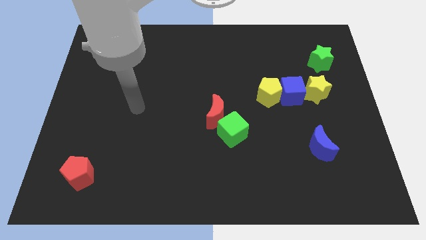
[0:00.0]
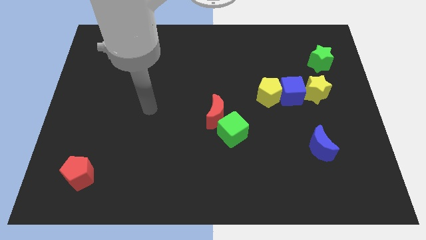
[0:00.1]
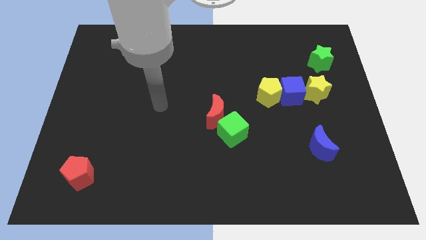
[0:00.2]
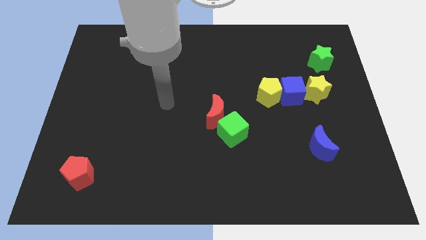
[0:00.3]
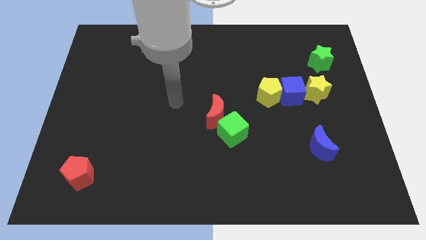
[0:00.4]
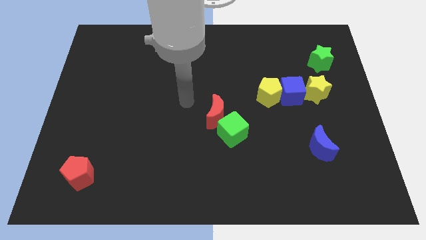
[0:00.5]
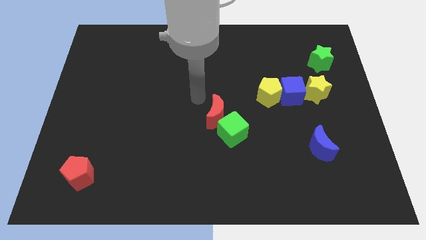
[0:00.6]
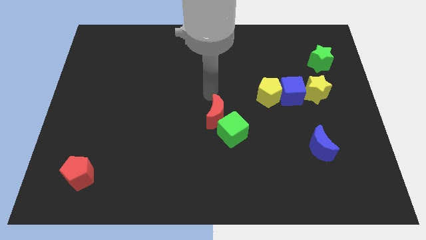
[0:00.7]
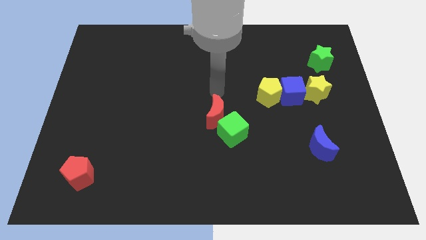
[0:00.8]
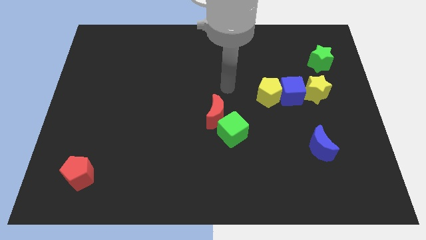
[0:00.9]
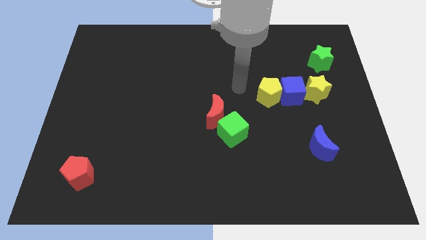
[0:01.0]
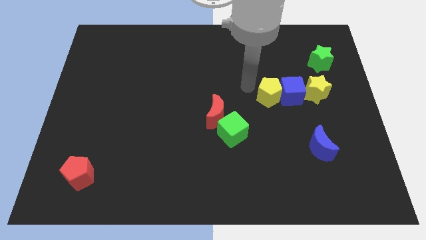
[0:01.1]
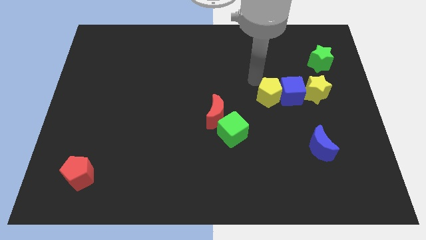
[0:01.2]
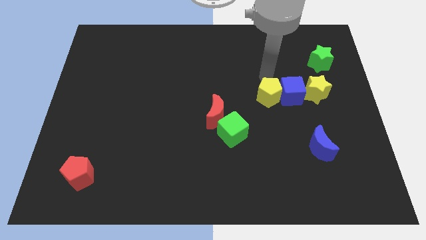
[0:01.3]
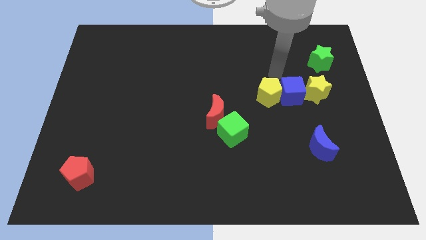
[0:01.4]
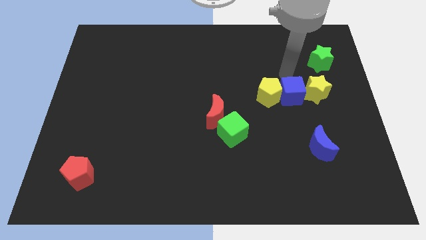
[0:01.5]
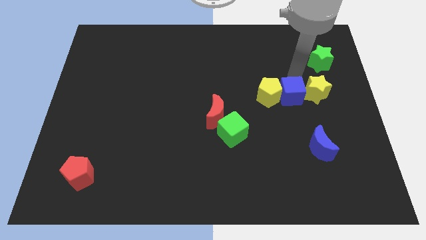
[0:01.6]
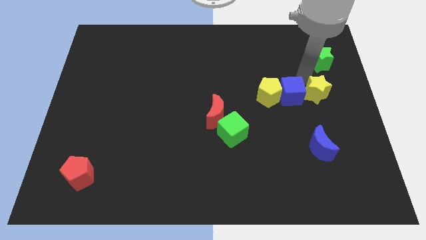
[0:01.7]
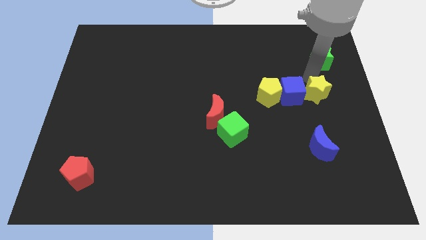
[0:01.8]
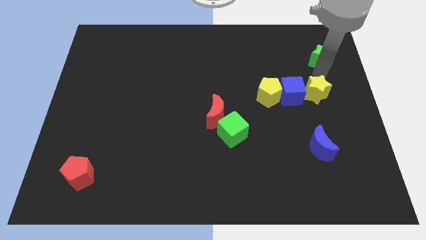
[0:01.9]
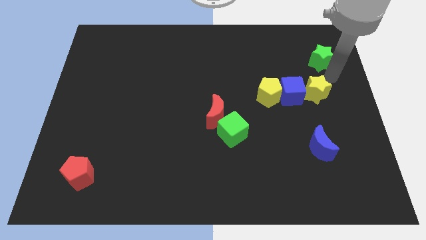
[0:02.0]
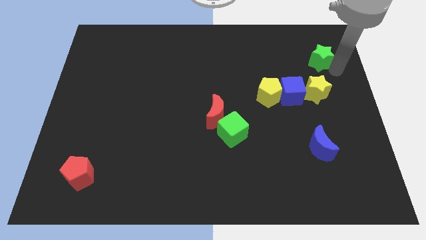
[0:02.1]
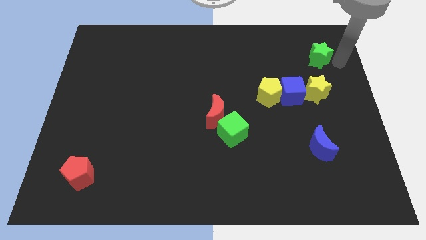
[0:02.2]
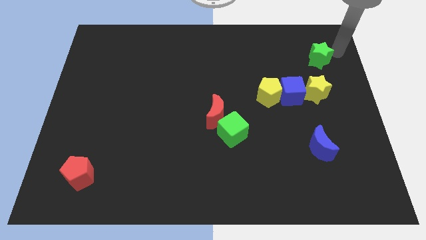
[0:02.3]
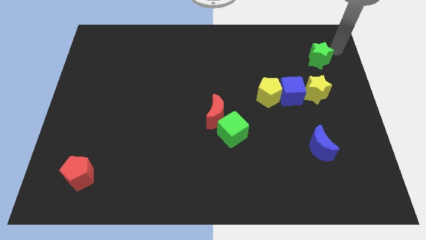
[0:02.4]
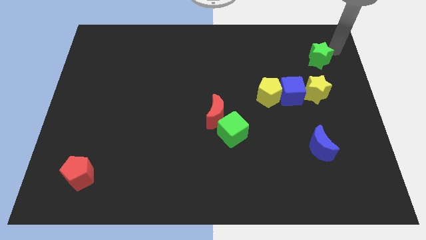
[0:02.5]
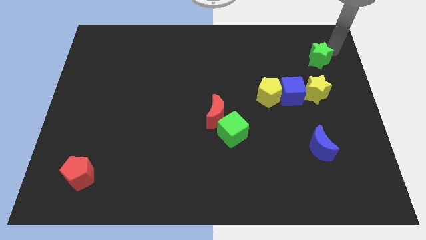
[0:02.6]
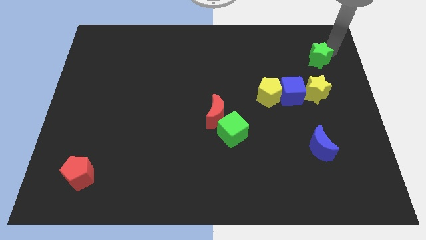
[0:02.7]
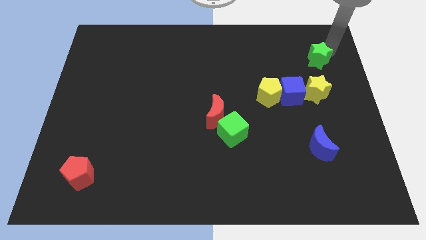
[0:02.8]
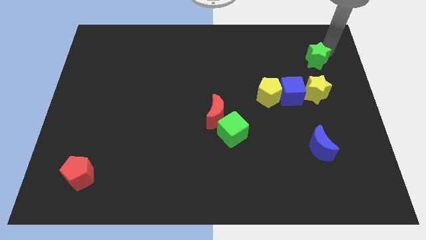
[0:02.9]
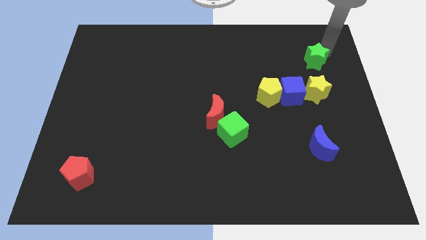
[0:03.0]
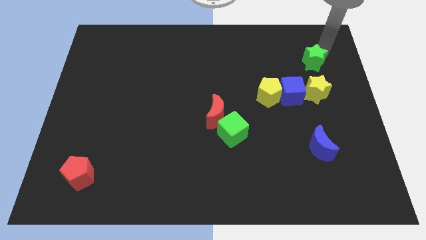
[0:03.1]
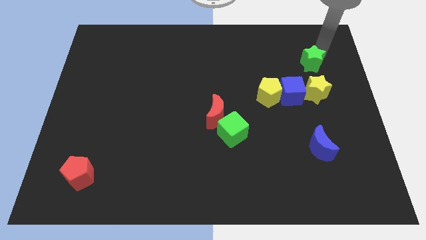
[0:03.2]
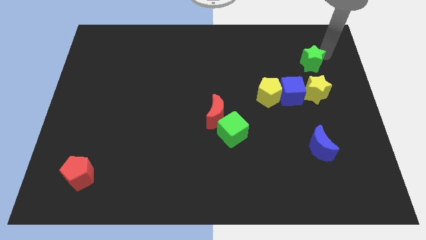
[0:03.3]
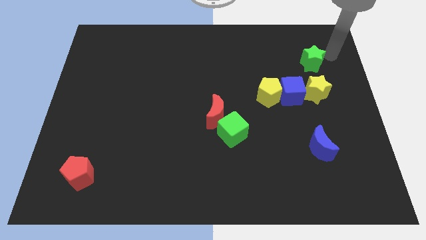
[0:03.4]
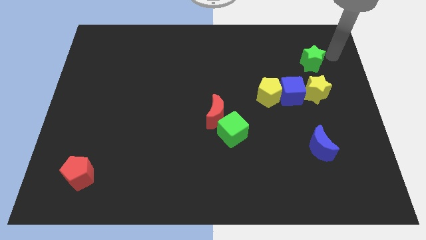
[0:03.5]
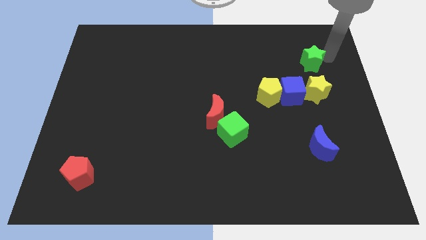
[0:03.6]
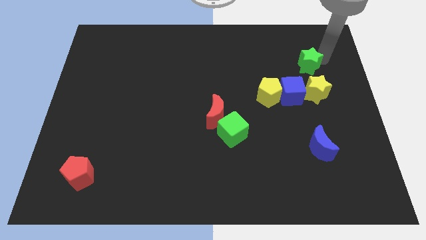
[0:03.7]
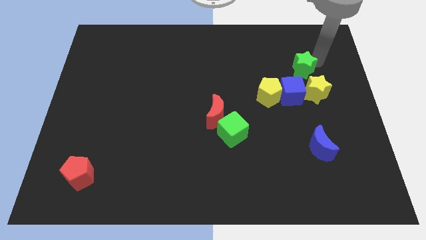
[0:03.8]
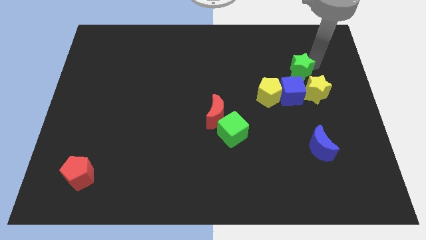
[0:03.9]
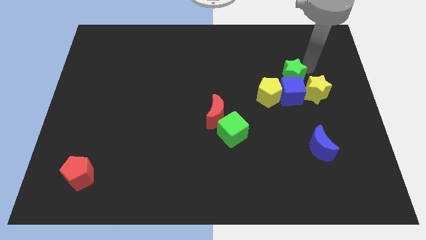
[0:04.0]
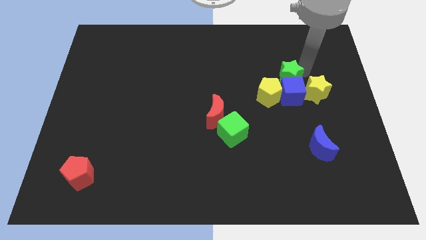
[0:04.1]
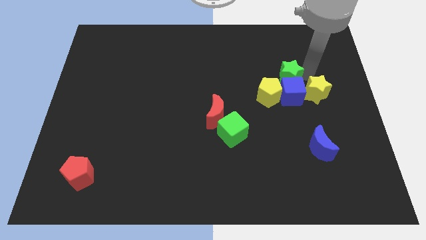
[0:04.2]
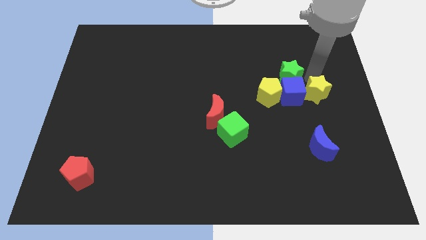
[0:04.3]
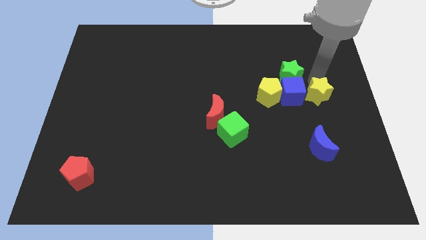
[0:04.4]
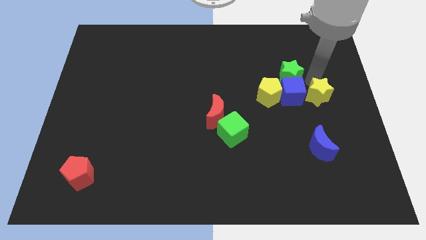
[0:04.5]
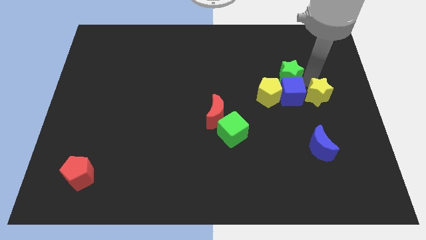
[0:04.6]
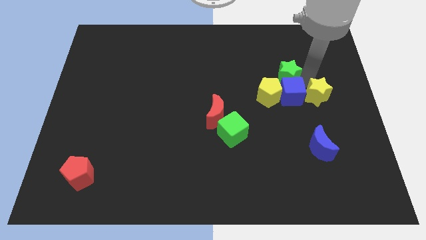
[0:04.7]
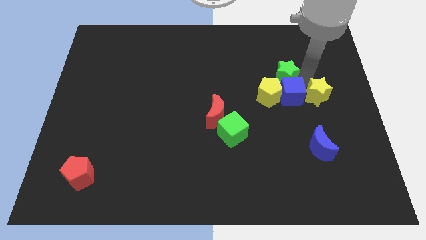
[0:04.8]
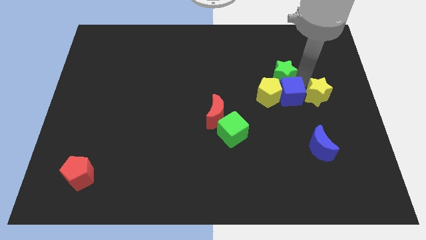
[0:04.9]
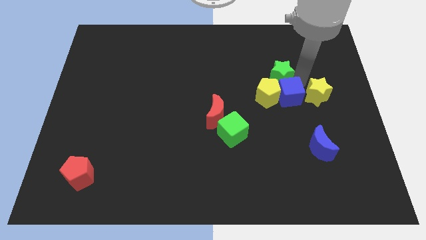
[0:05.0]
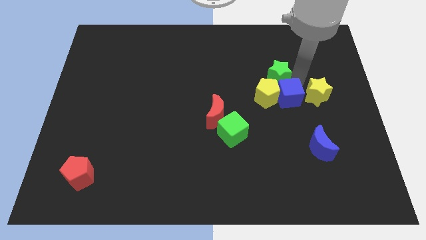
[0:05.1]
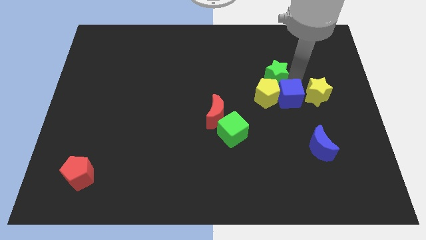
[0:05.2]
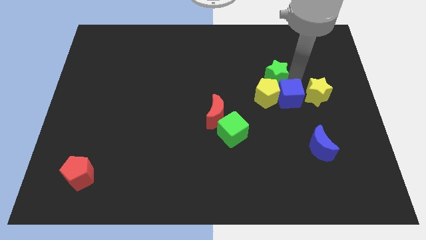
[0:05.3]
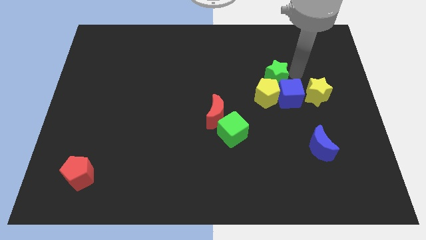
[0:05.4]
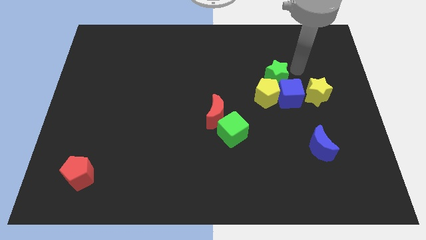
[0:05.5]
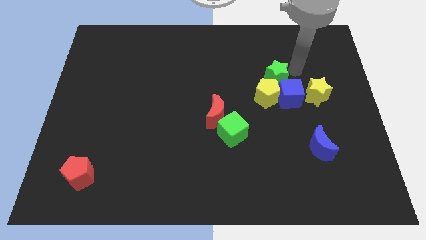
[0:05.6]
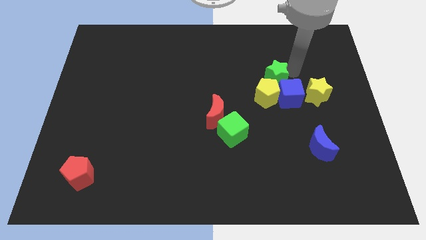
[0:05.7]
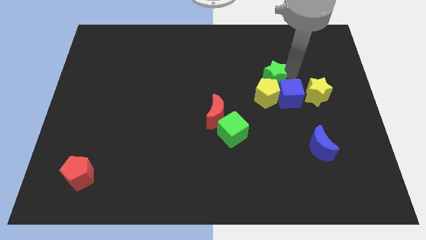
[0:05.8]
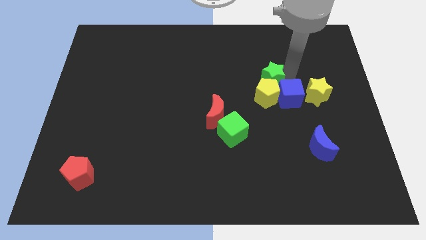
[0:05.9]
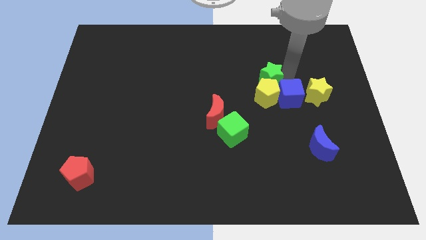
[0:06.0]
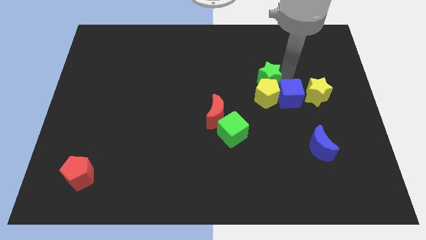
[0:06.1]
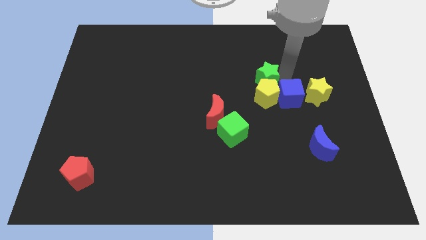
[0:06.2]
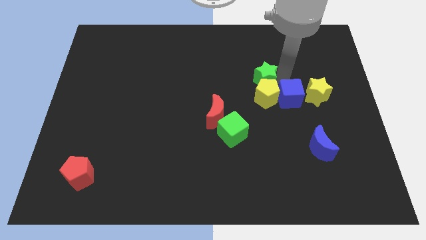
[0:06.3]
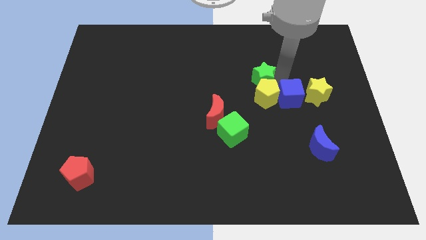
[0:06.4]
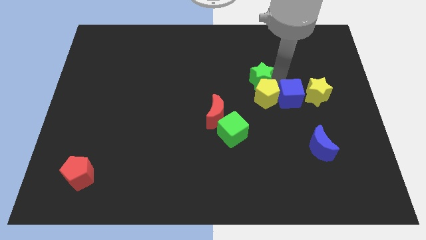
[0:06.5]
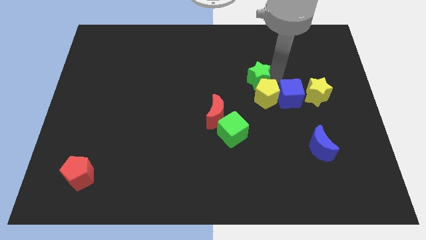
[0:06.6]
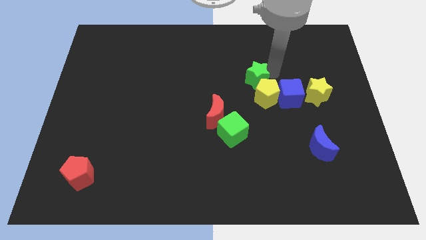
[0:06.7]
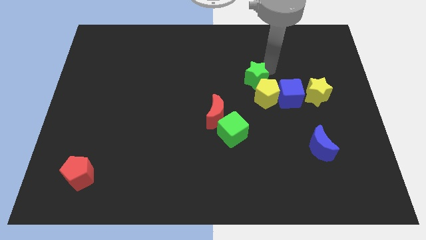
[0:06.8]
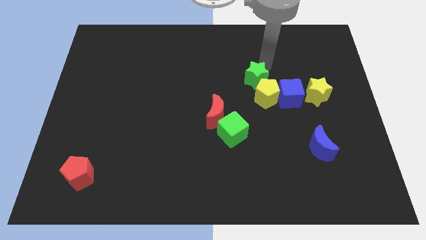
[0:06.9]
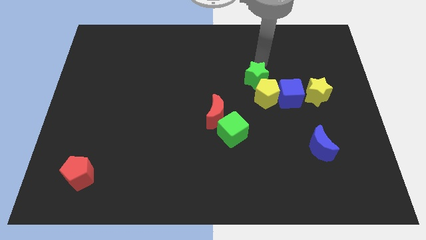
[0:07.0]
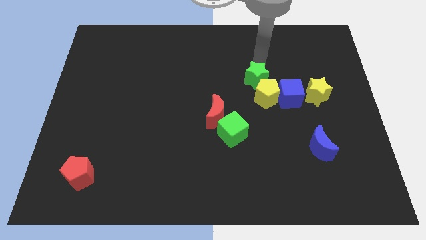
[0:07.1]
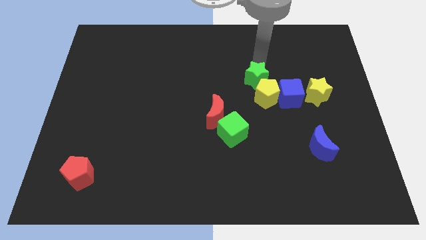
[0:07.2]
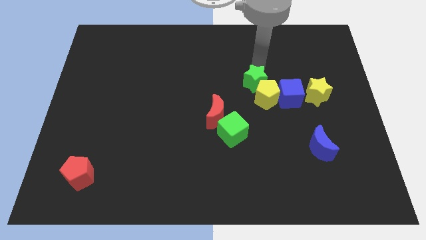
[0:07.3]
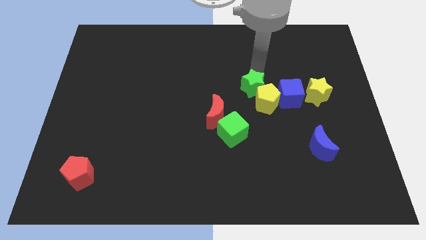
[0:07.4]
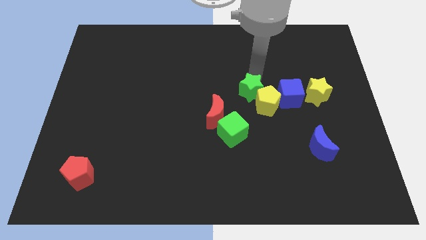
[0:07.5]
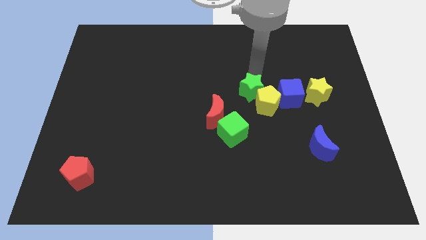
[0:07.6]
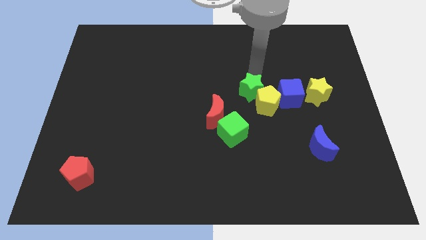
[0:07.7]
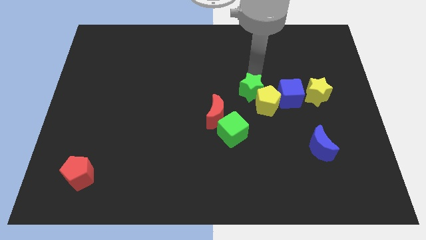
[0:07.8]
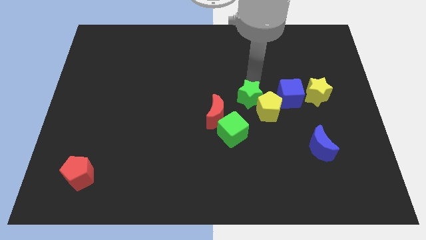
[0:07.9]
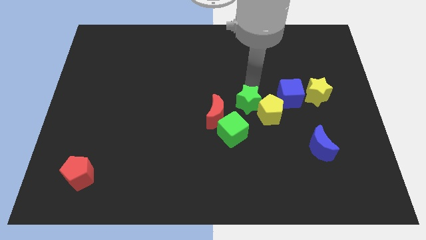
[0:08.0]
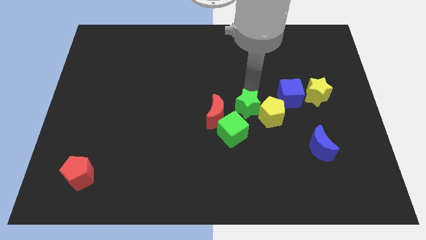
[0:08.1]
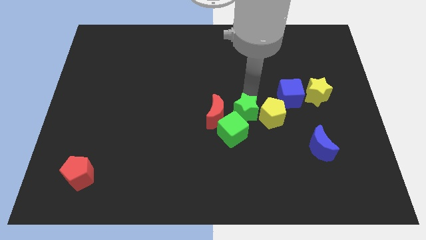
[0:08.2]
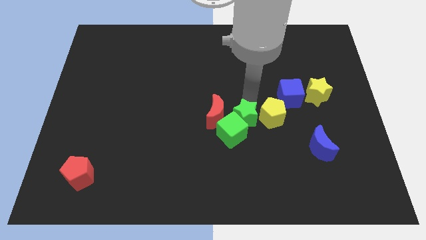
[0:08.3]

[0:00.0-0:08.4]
slide the green star close to the green cube
